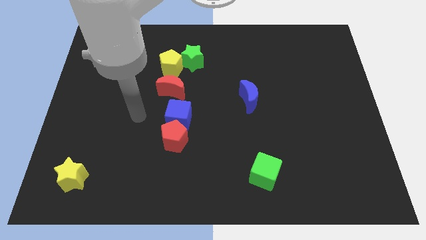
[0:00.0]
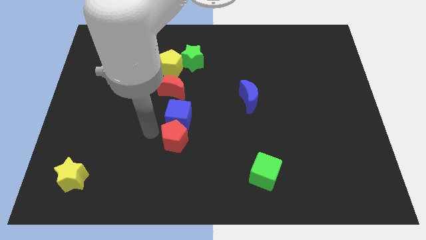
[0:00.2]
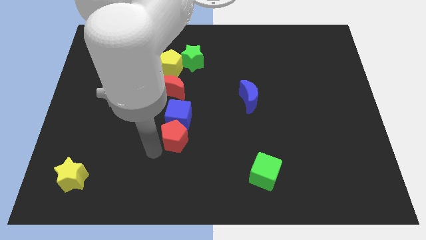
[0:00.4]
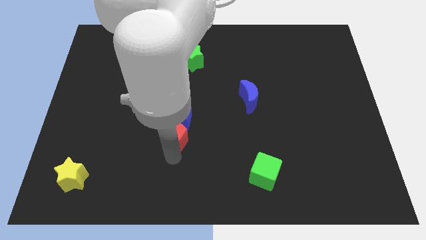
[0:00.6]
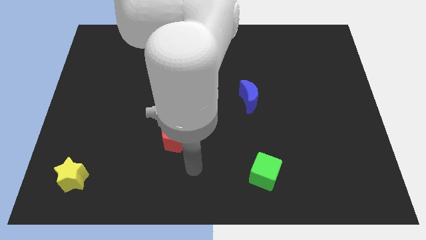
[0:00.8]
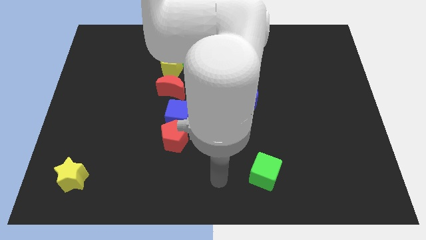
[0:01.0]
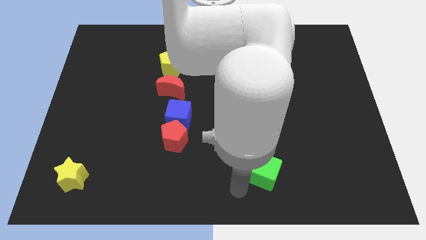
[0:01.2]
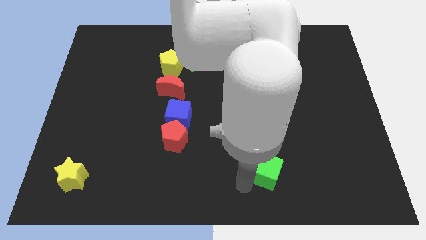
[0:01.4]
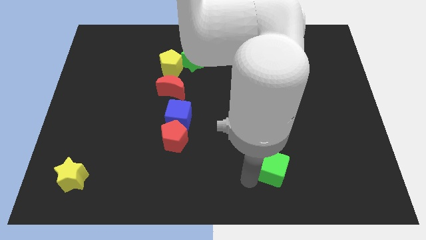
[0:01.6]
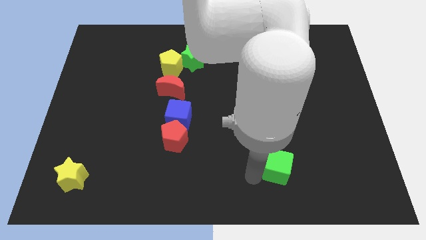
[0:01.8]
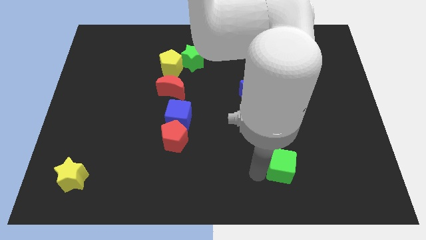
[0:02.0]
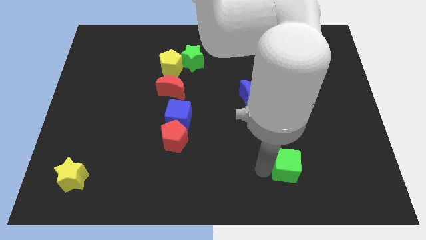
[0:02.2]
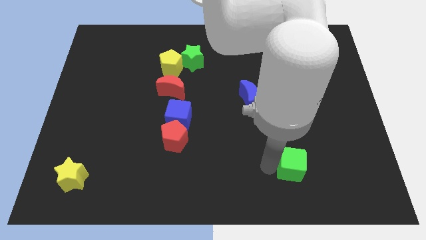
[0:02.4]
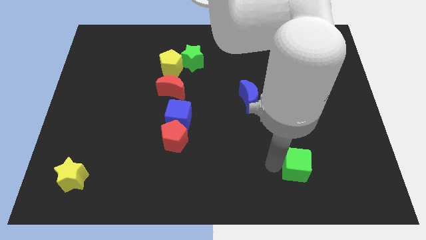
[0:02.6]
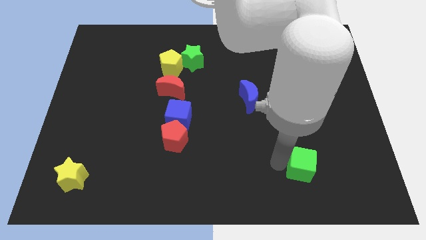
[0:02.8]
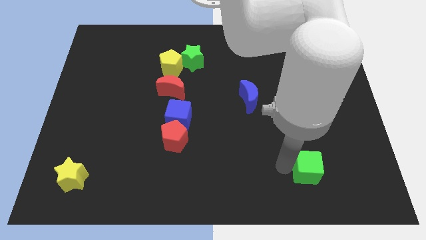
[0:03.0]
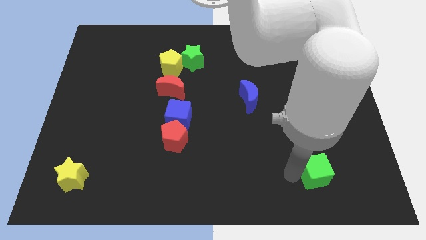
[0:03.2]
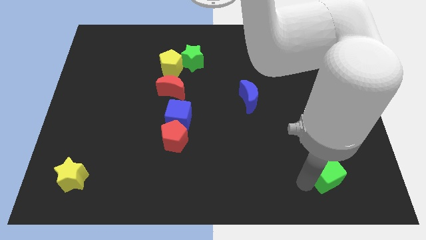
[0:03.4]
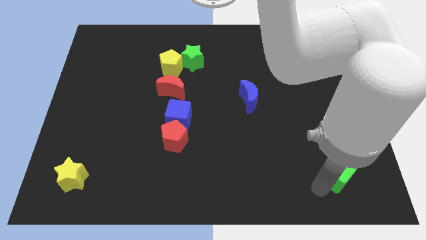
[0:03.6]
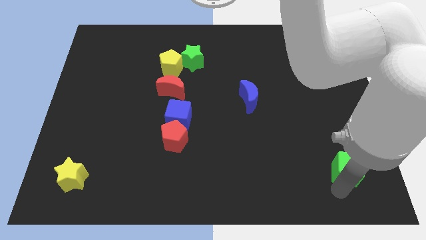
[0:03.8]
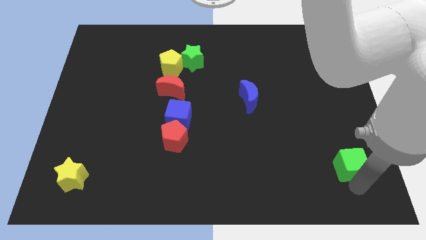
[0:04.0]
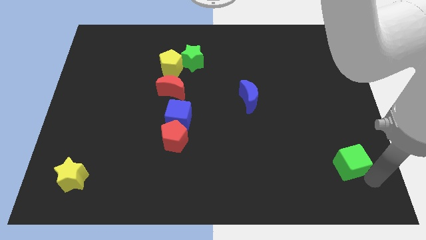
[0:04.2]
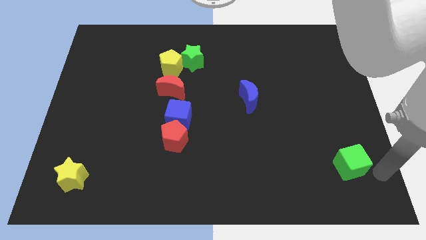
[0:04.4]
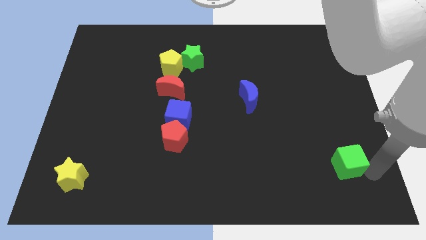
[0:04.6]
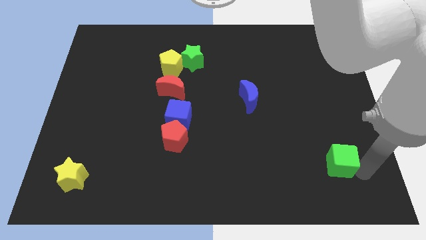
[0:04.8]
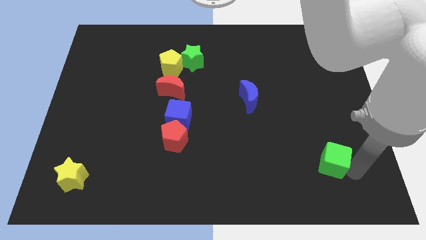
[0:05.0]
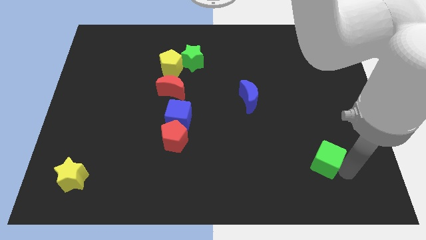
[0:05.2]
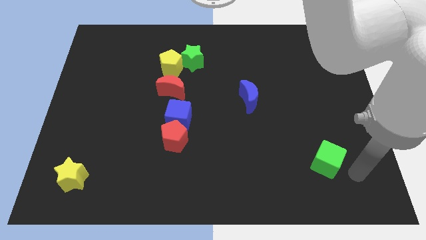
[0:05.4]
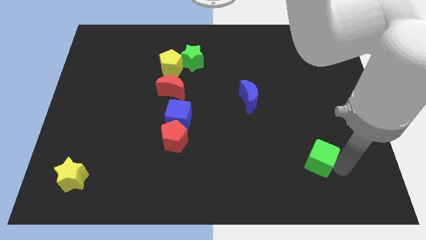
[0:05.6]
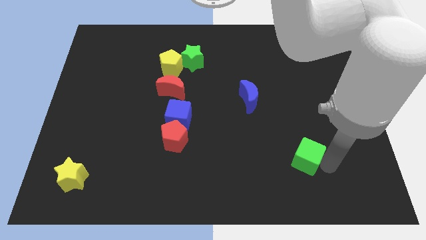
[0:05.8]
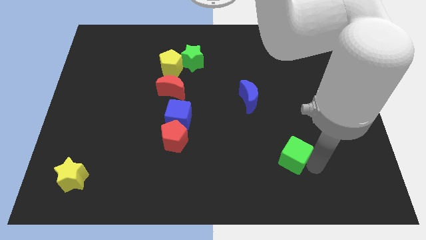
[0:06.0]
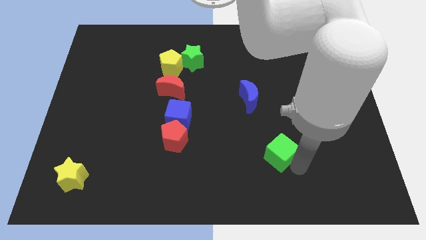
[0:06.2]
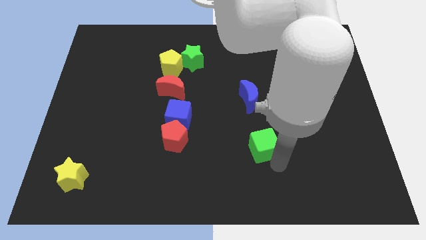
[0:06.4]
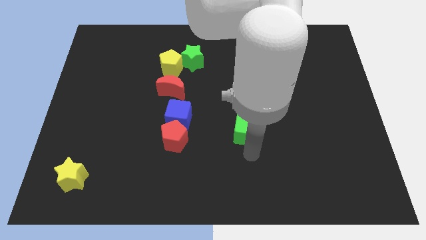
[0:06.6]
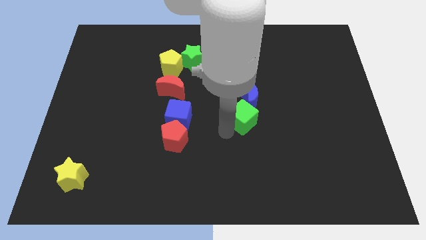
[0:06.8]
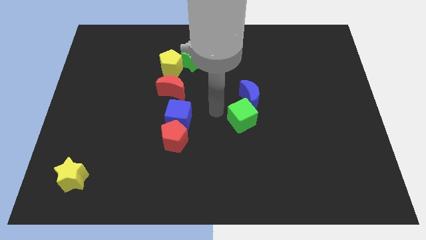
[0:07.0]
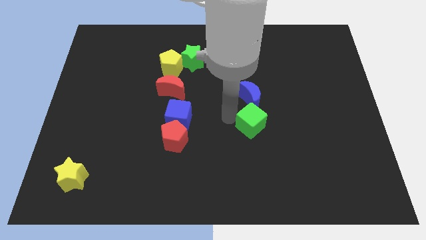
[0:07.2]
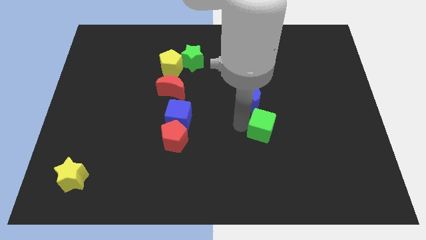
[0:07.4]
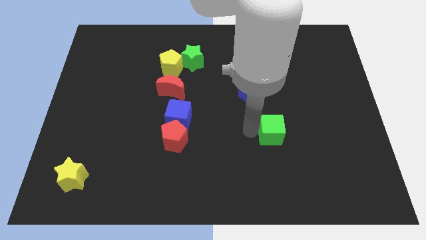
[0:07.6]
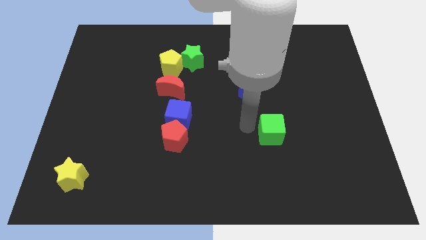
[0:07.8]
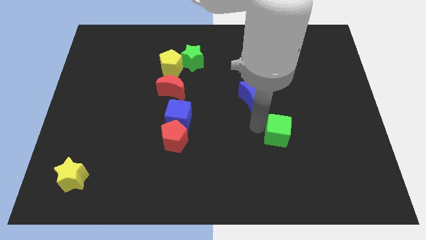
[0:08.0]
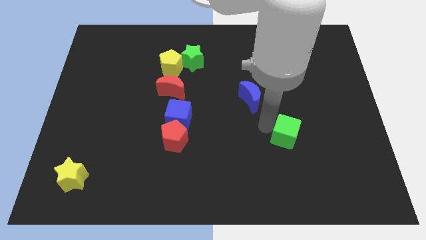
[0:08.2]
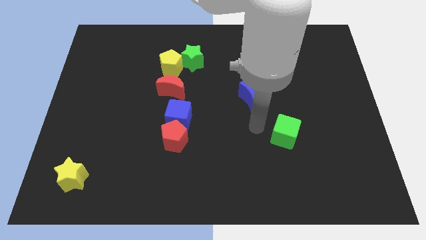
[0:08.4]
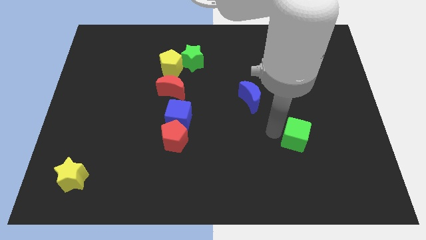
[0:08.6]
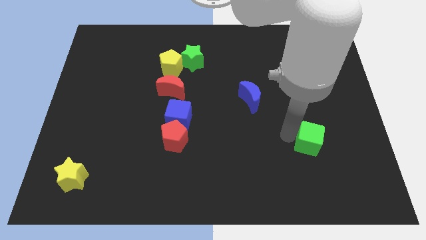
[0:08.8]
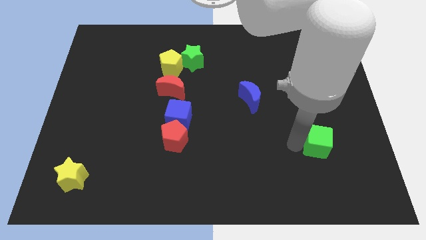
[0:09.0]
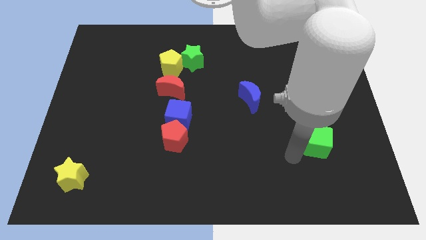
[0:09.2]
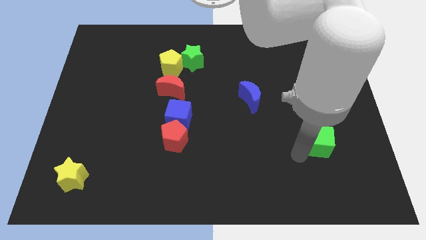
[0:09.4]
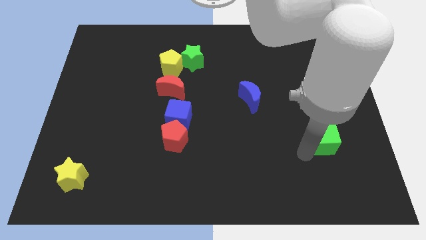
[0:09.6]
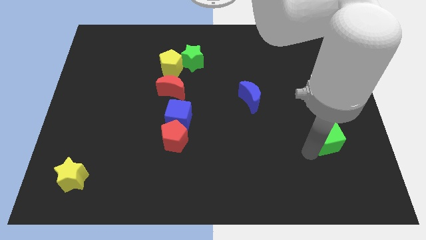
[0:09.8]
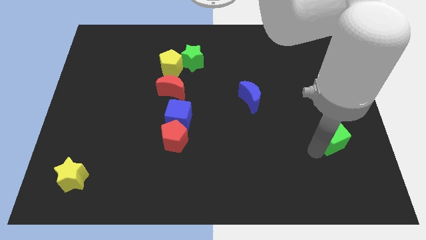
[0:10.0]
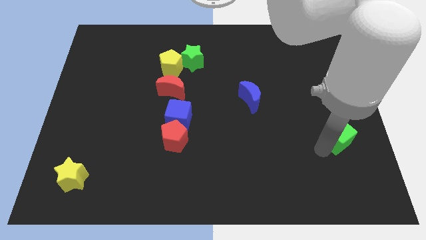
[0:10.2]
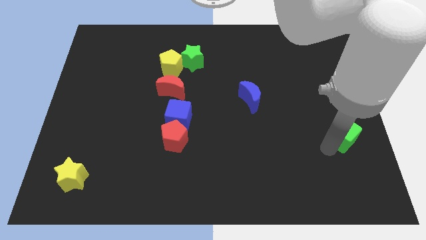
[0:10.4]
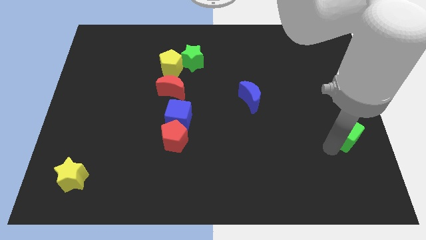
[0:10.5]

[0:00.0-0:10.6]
push the green cube to the right side of the board

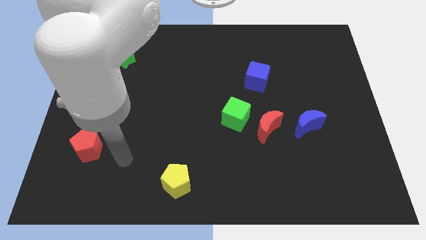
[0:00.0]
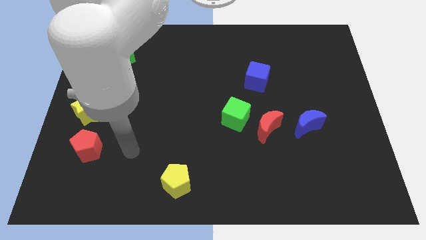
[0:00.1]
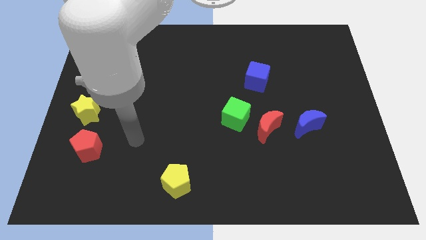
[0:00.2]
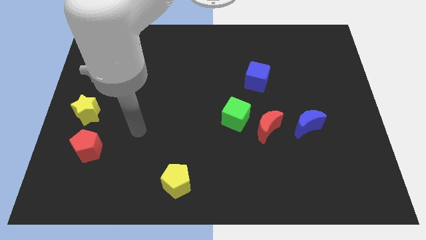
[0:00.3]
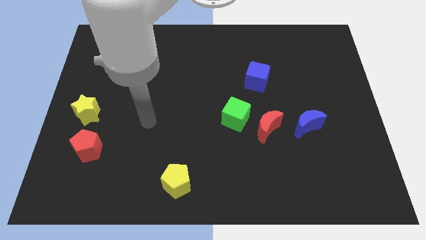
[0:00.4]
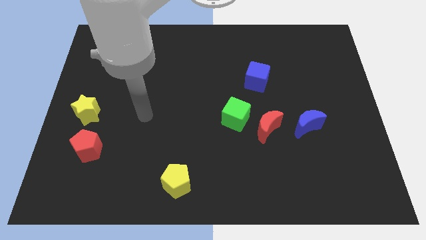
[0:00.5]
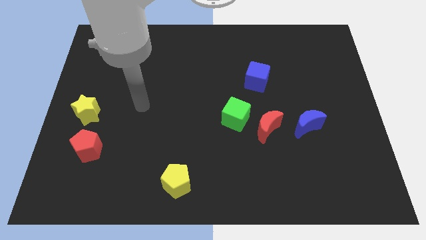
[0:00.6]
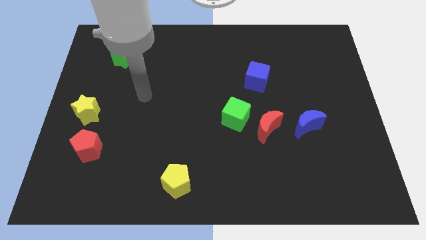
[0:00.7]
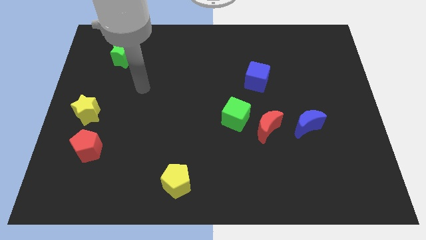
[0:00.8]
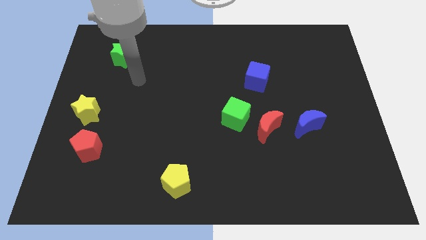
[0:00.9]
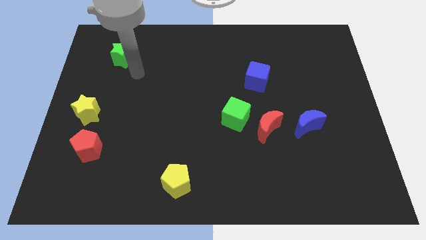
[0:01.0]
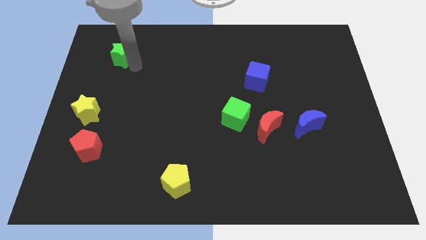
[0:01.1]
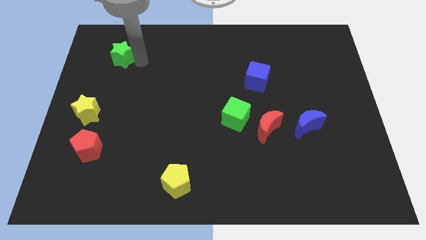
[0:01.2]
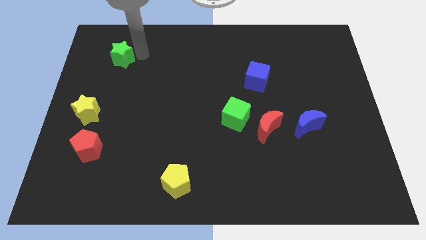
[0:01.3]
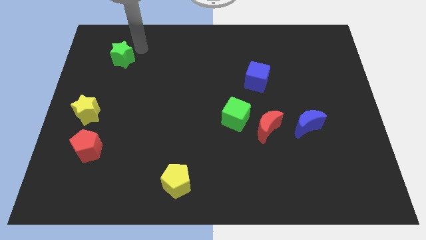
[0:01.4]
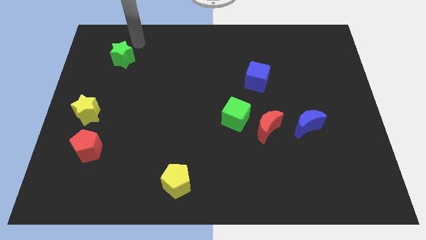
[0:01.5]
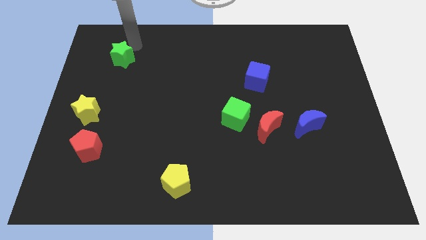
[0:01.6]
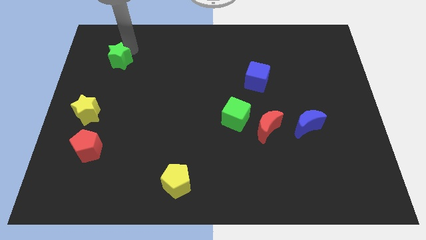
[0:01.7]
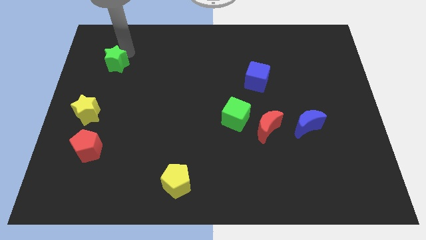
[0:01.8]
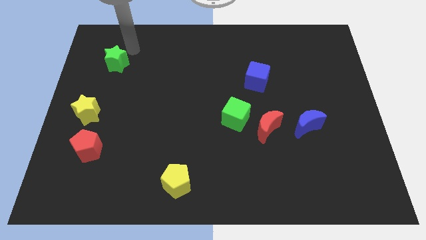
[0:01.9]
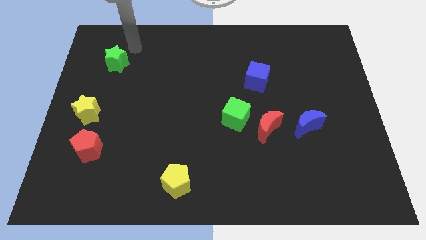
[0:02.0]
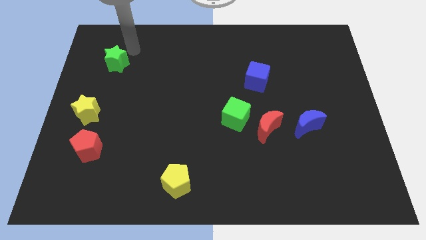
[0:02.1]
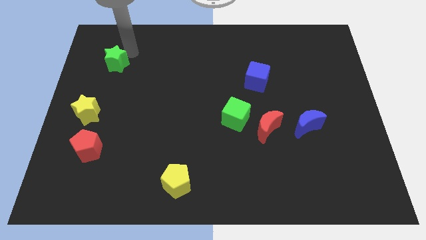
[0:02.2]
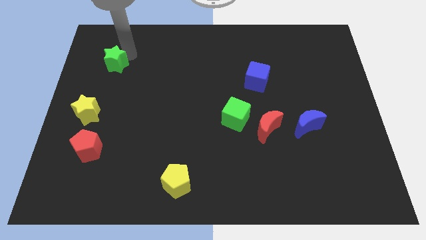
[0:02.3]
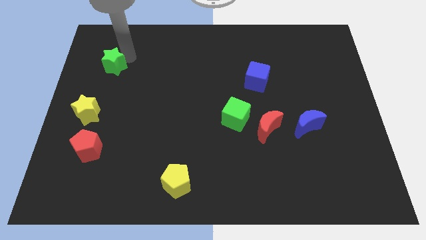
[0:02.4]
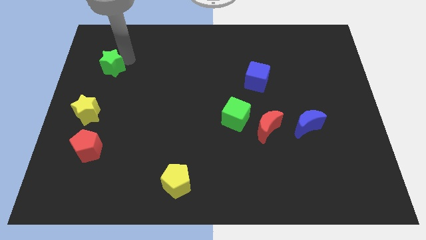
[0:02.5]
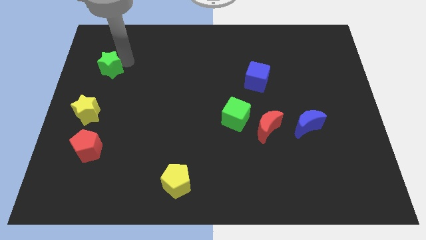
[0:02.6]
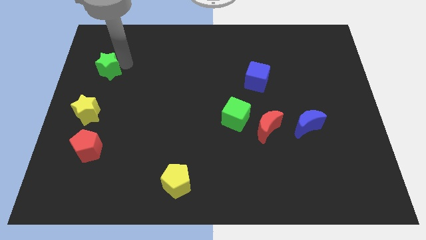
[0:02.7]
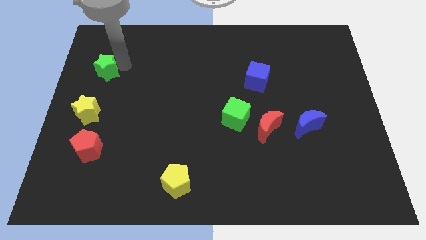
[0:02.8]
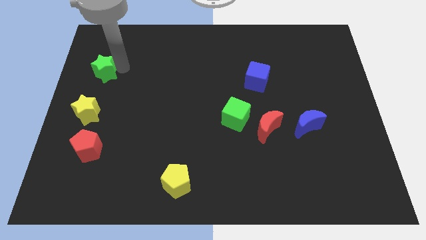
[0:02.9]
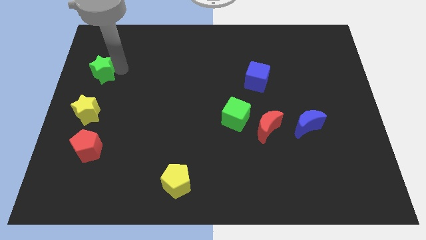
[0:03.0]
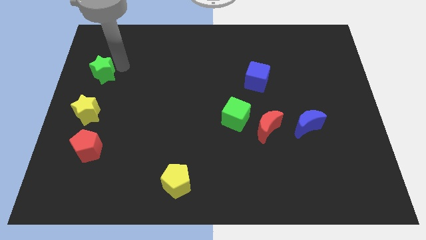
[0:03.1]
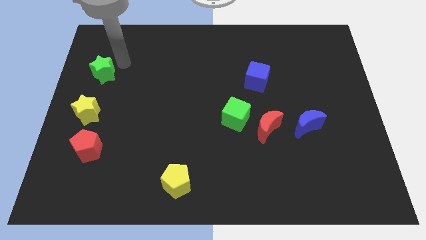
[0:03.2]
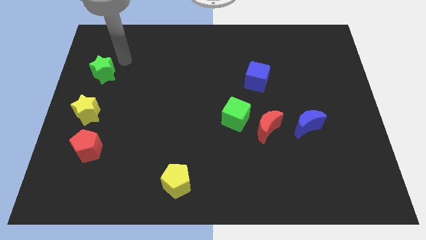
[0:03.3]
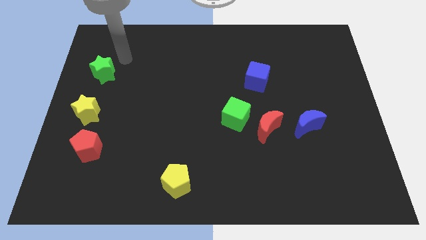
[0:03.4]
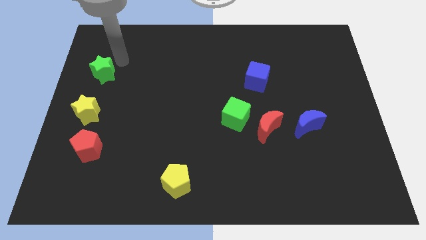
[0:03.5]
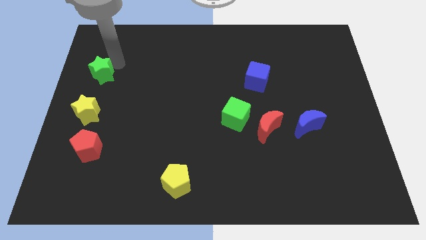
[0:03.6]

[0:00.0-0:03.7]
slide the green star to the center left
